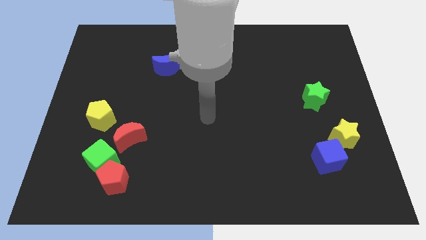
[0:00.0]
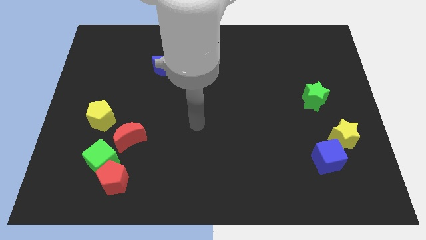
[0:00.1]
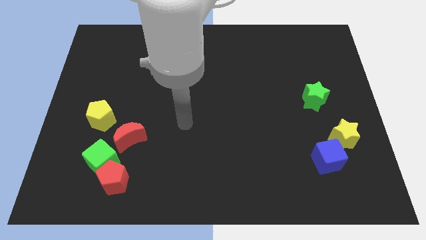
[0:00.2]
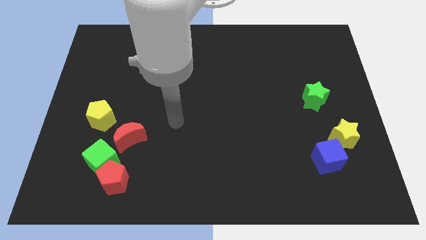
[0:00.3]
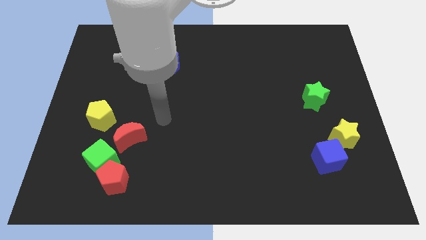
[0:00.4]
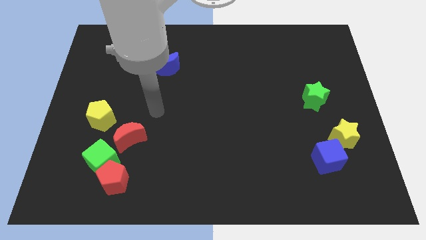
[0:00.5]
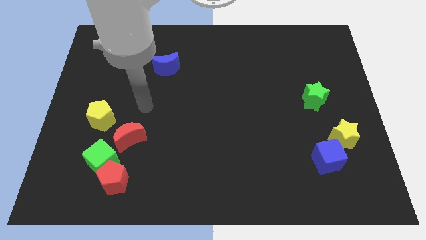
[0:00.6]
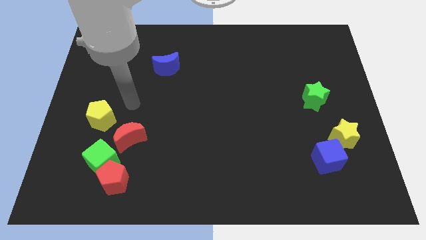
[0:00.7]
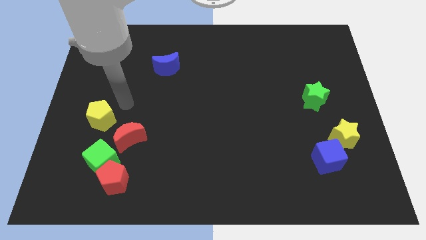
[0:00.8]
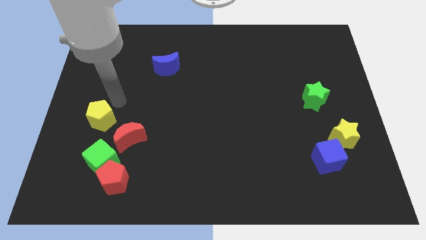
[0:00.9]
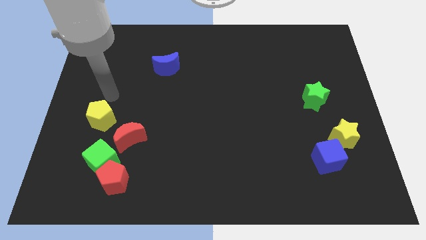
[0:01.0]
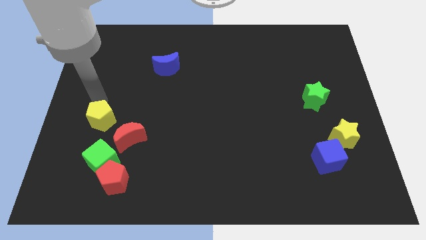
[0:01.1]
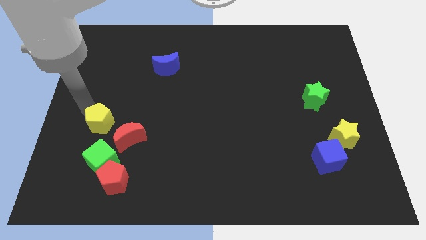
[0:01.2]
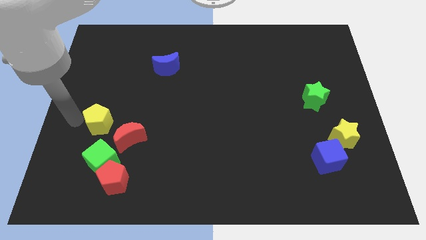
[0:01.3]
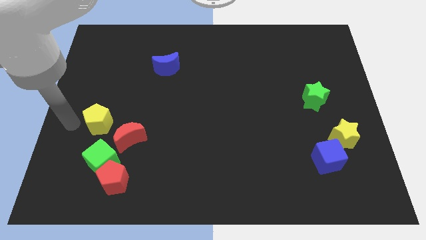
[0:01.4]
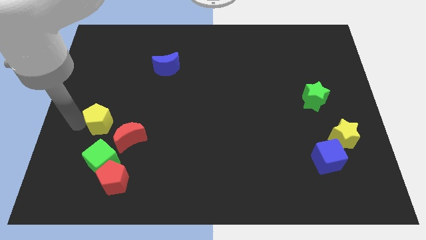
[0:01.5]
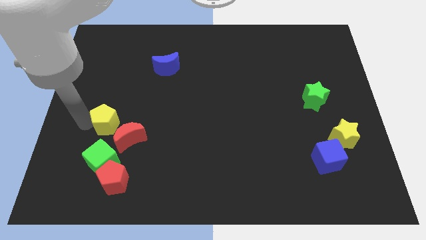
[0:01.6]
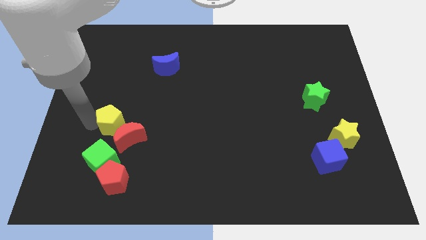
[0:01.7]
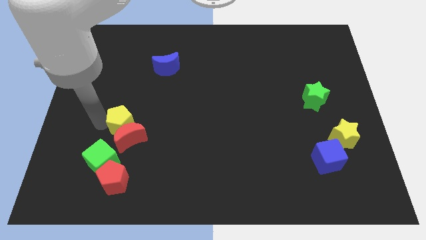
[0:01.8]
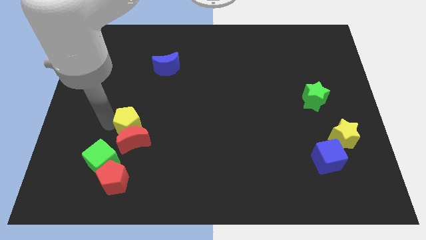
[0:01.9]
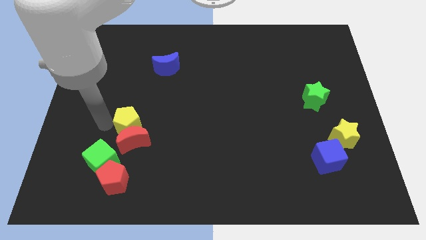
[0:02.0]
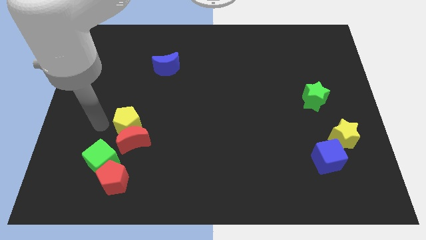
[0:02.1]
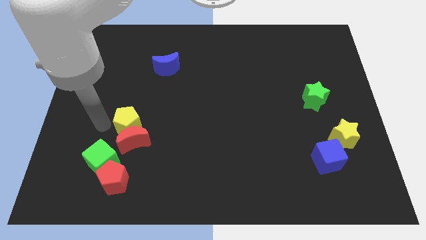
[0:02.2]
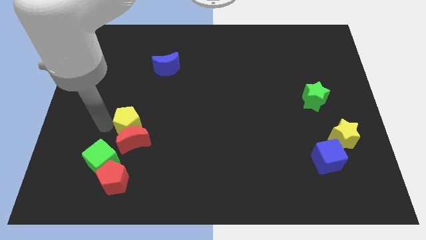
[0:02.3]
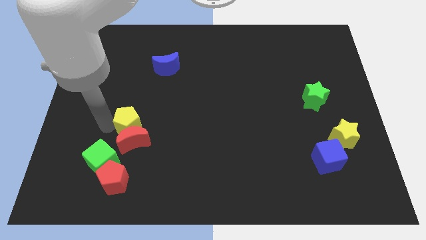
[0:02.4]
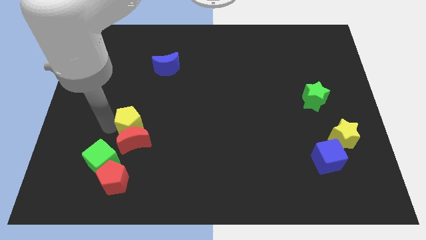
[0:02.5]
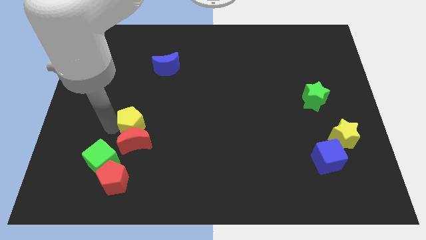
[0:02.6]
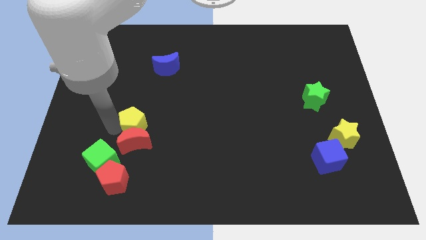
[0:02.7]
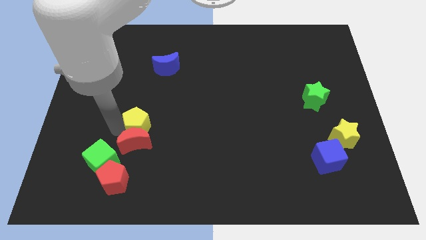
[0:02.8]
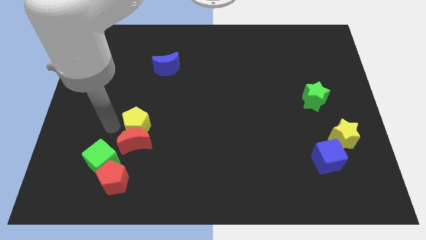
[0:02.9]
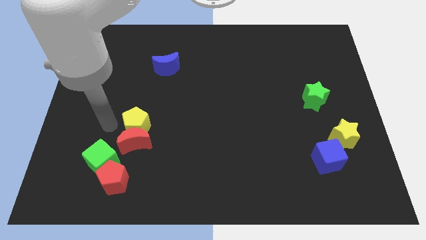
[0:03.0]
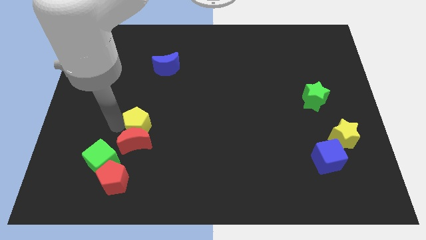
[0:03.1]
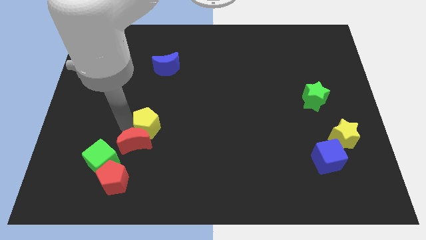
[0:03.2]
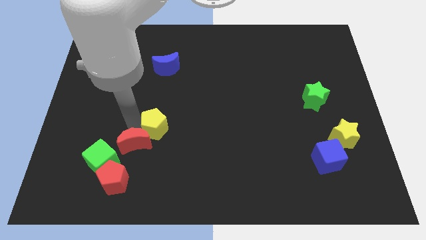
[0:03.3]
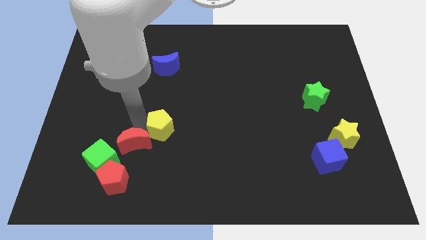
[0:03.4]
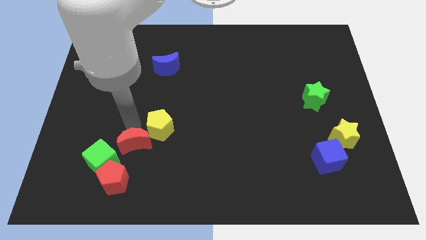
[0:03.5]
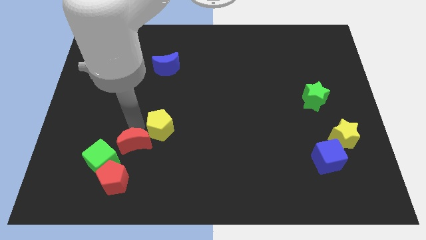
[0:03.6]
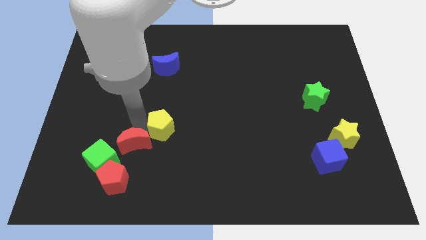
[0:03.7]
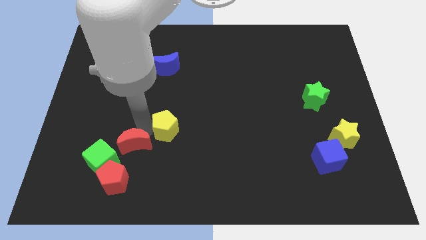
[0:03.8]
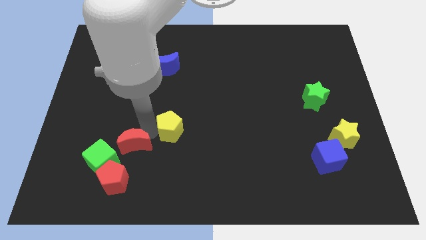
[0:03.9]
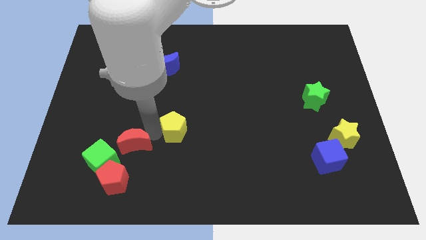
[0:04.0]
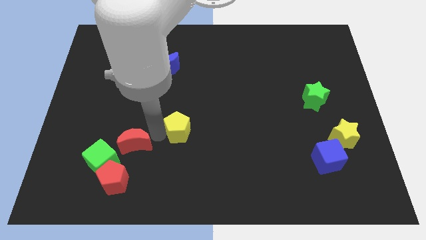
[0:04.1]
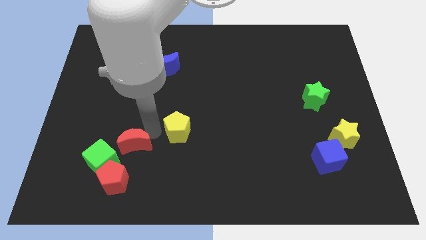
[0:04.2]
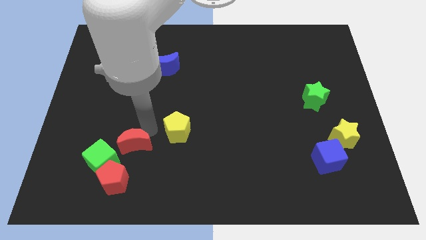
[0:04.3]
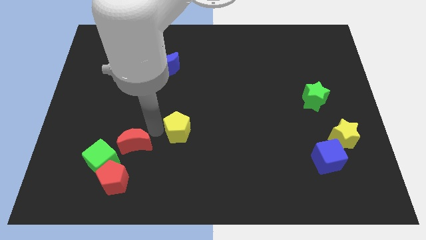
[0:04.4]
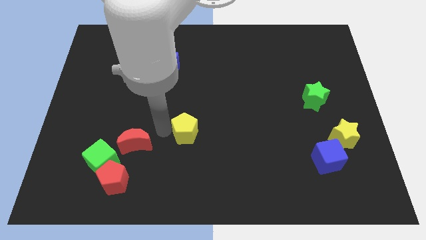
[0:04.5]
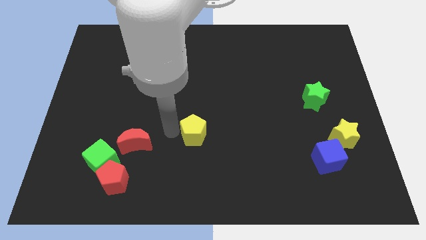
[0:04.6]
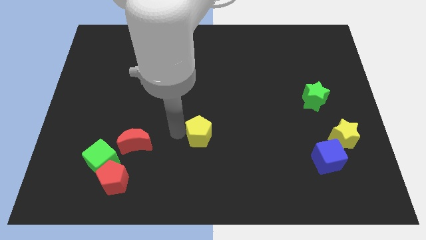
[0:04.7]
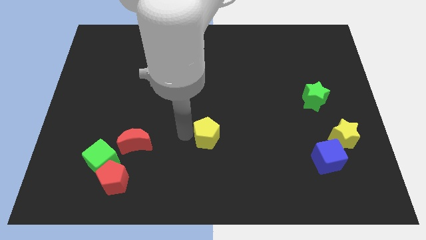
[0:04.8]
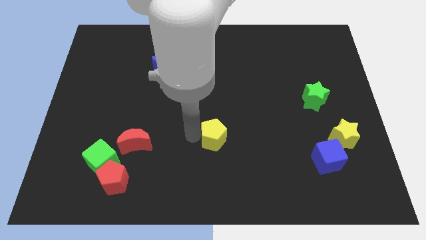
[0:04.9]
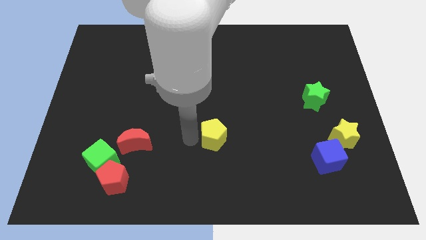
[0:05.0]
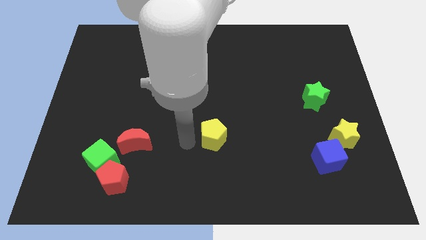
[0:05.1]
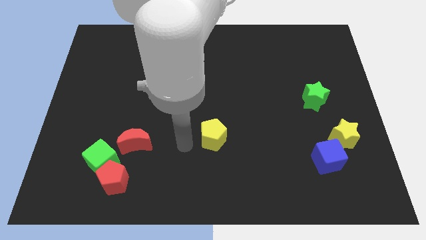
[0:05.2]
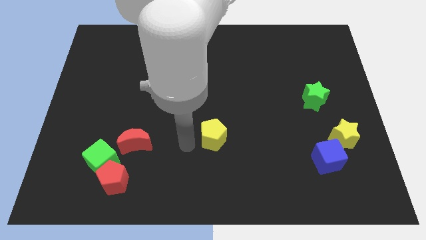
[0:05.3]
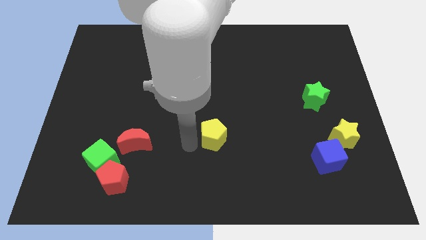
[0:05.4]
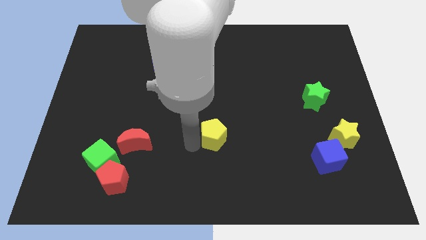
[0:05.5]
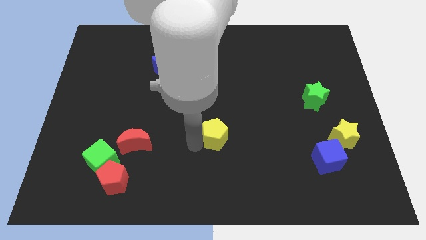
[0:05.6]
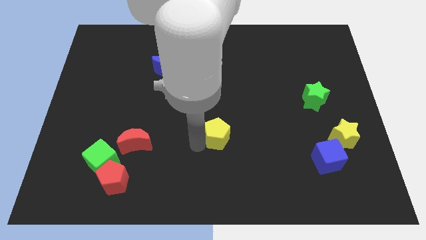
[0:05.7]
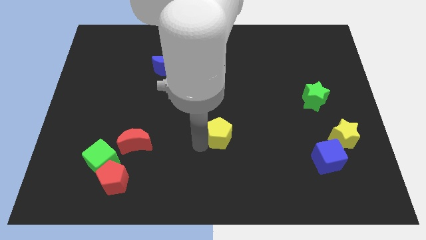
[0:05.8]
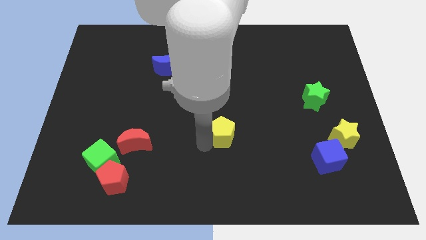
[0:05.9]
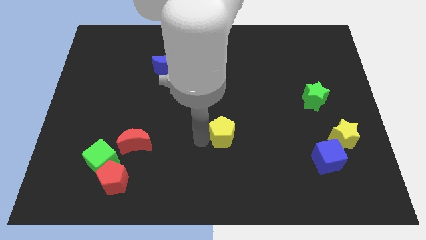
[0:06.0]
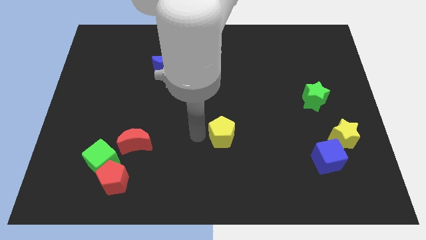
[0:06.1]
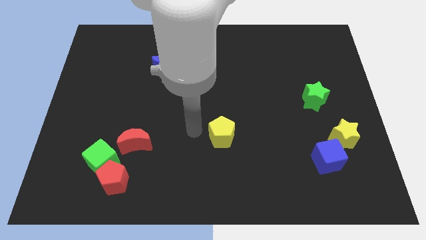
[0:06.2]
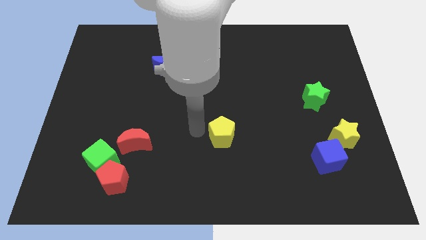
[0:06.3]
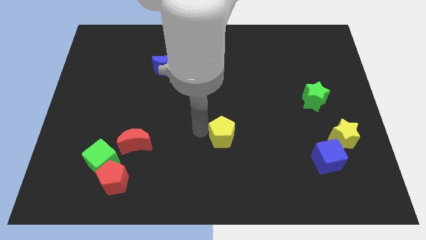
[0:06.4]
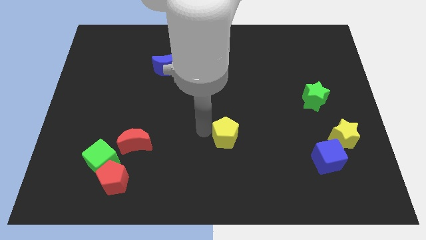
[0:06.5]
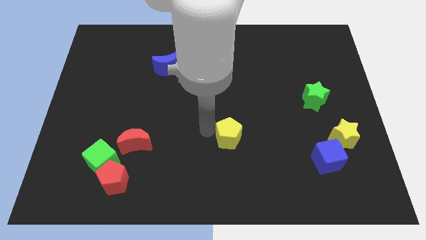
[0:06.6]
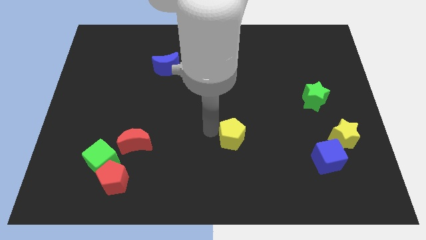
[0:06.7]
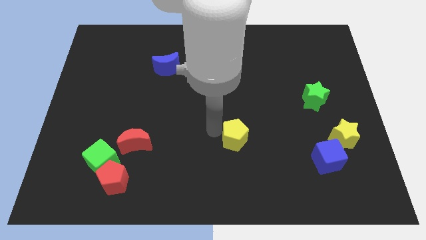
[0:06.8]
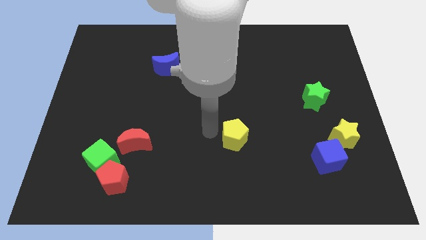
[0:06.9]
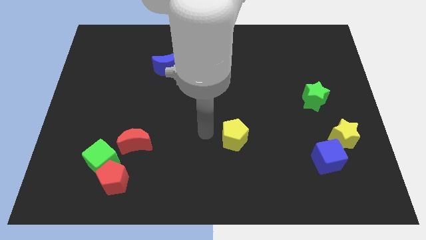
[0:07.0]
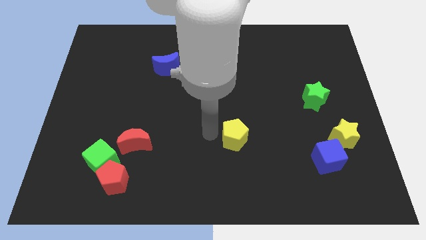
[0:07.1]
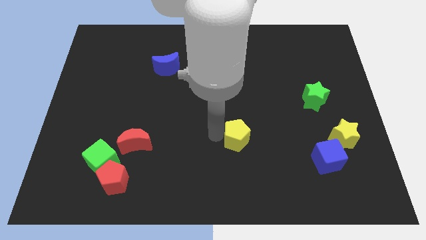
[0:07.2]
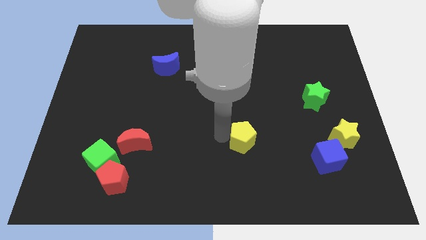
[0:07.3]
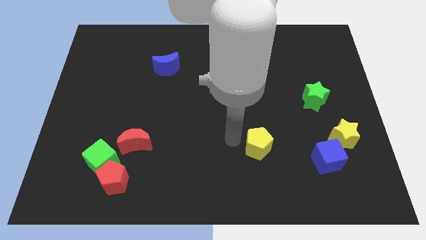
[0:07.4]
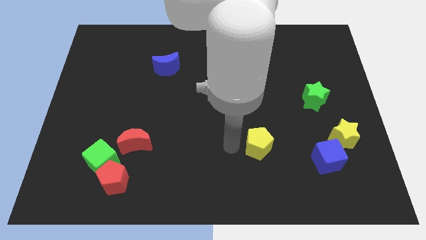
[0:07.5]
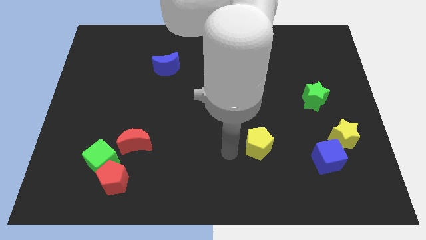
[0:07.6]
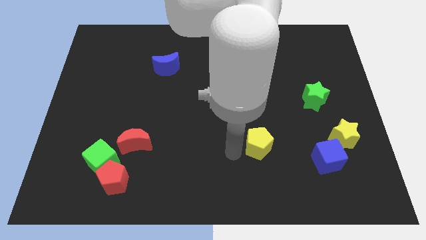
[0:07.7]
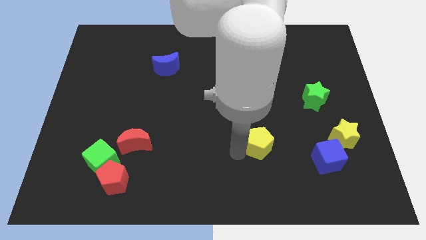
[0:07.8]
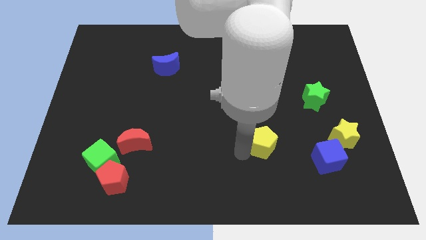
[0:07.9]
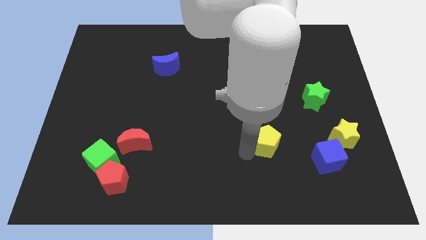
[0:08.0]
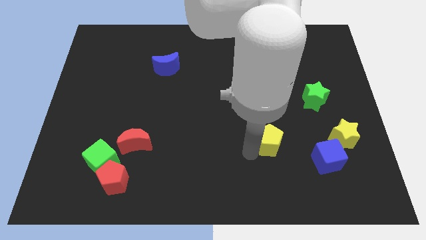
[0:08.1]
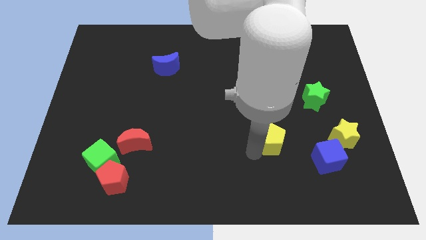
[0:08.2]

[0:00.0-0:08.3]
move the yellow pentagon just left of the yellow star
